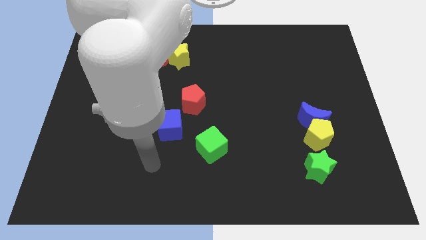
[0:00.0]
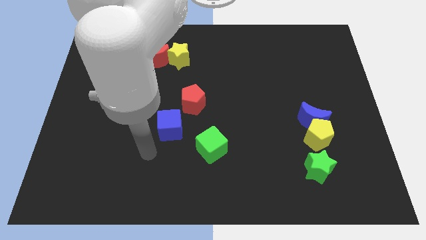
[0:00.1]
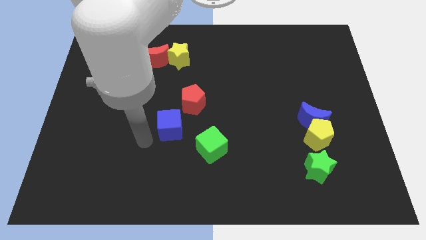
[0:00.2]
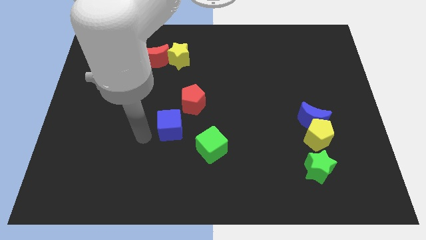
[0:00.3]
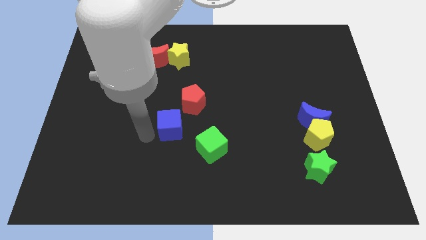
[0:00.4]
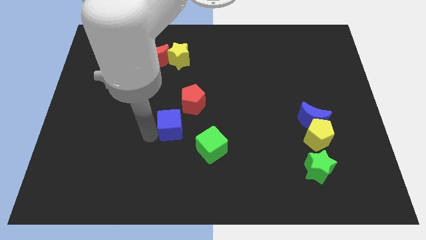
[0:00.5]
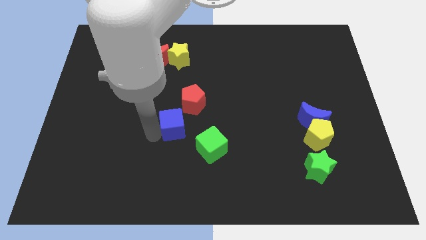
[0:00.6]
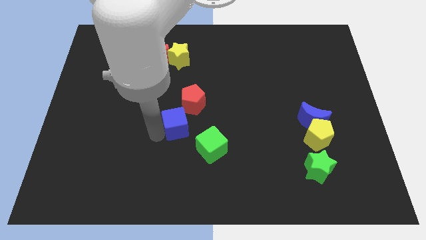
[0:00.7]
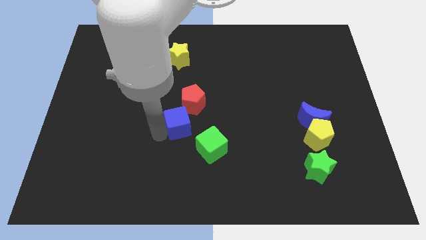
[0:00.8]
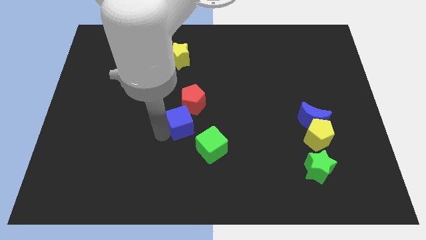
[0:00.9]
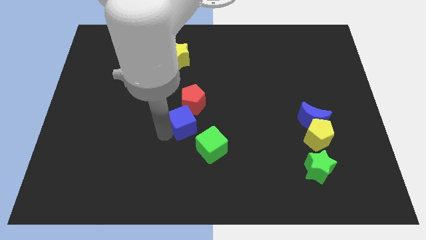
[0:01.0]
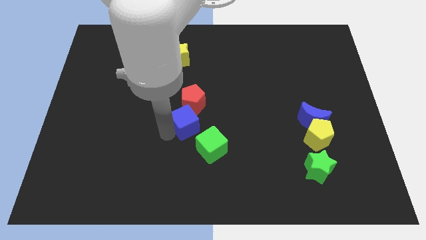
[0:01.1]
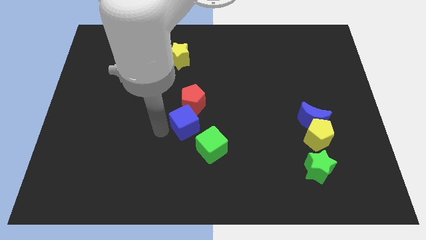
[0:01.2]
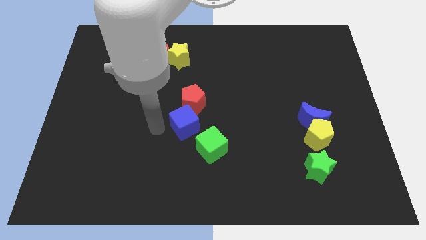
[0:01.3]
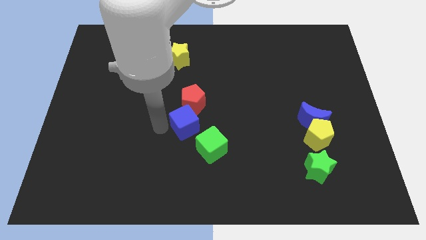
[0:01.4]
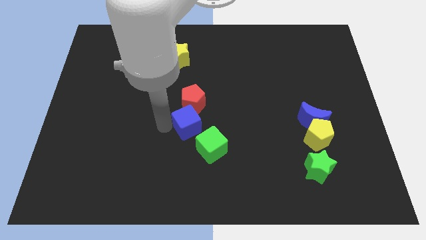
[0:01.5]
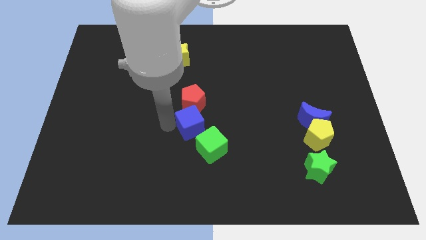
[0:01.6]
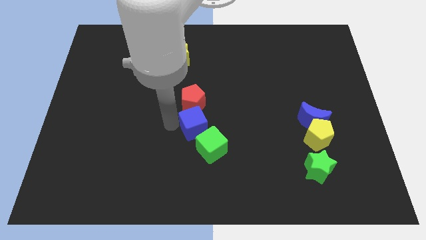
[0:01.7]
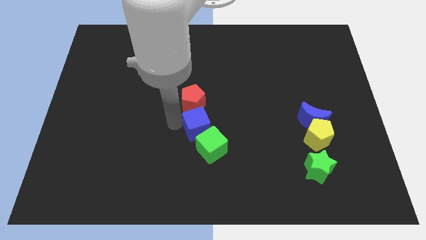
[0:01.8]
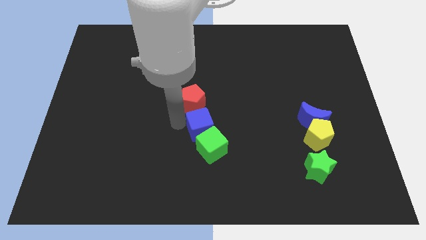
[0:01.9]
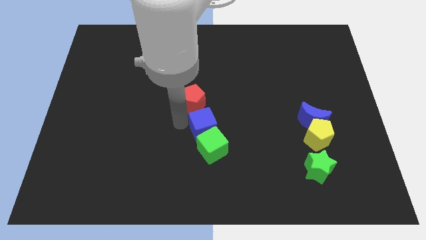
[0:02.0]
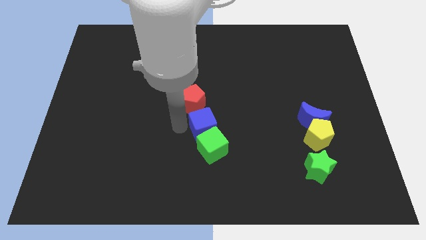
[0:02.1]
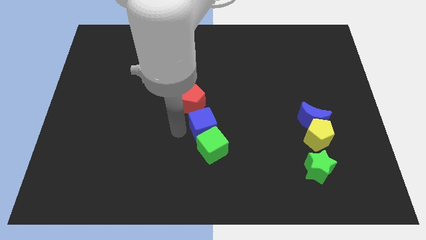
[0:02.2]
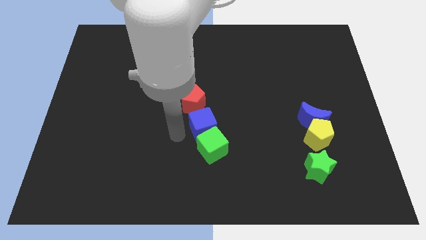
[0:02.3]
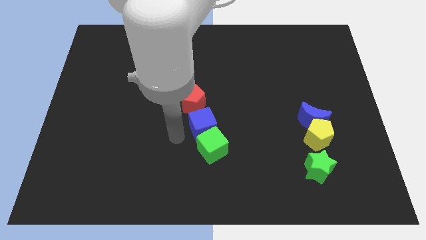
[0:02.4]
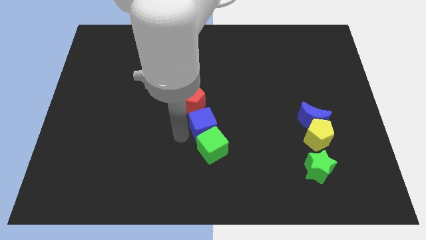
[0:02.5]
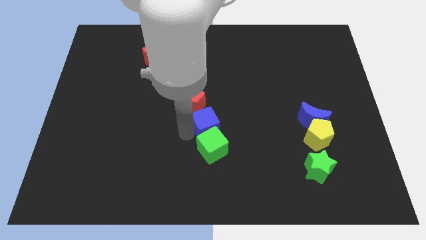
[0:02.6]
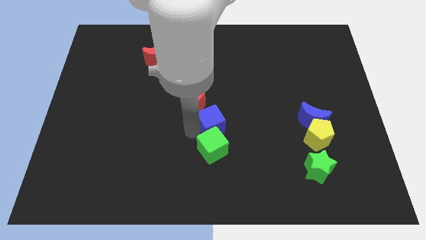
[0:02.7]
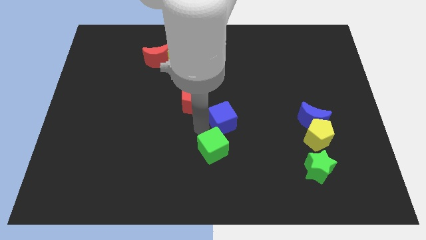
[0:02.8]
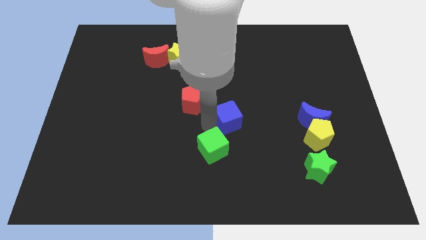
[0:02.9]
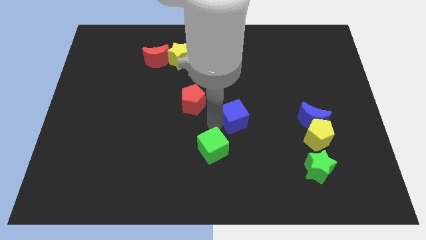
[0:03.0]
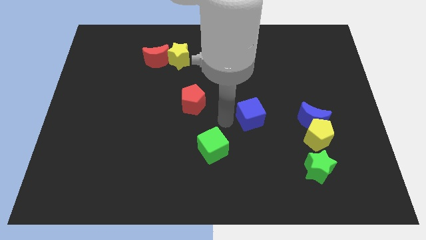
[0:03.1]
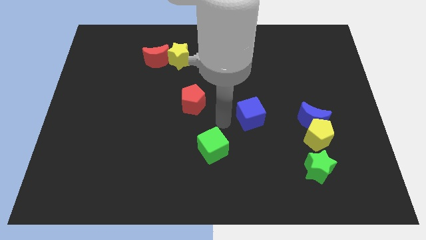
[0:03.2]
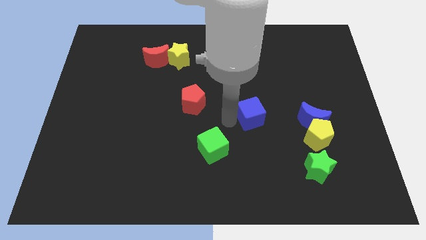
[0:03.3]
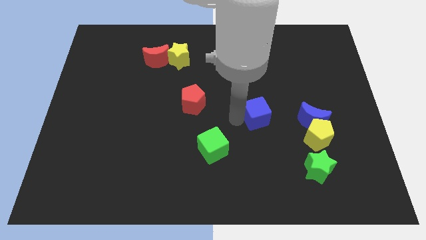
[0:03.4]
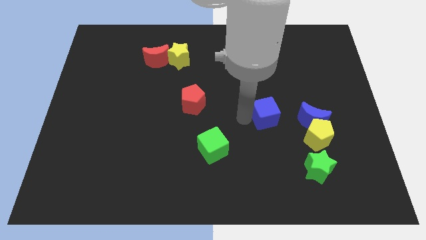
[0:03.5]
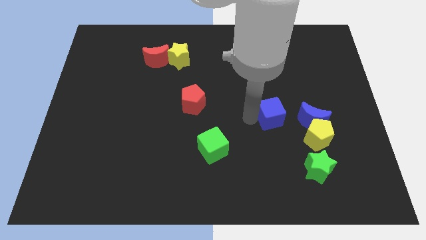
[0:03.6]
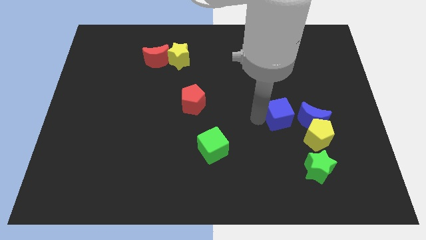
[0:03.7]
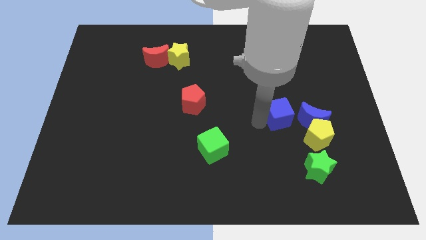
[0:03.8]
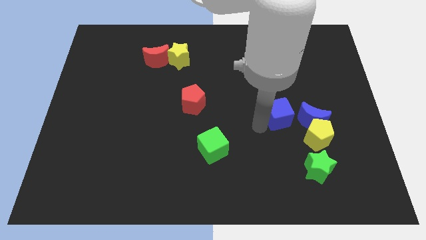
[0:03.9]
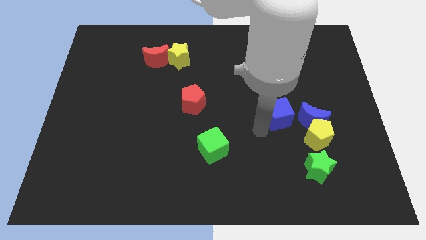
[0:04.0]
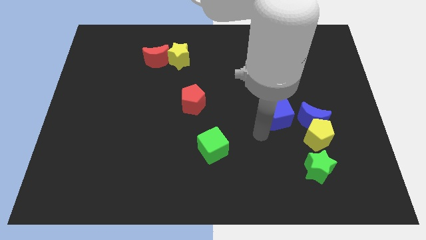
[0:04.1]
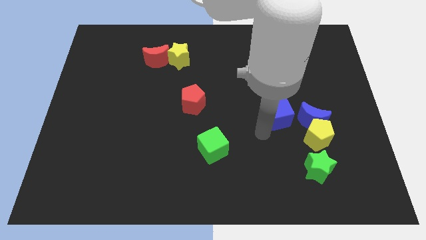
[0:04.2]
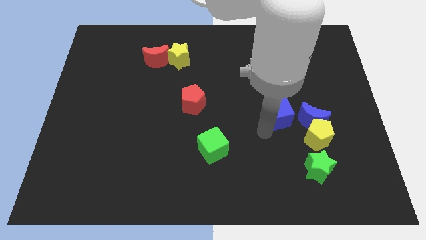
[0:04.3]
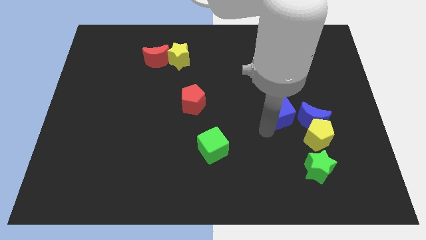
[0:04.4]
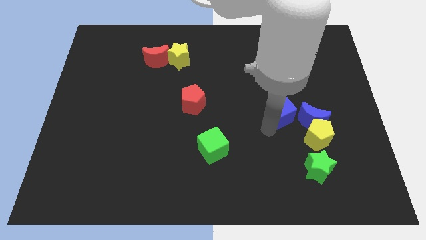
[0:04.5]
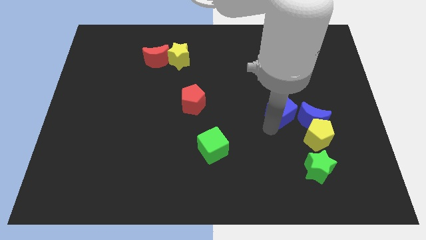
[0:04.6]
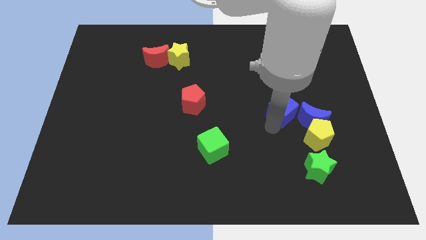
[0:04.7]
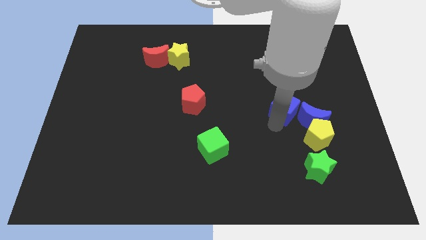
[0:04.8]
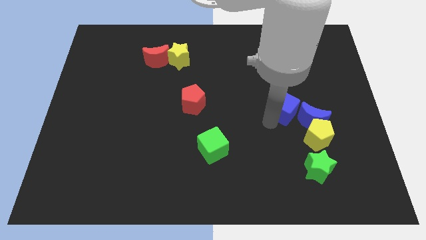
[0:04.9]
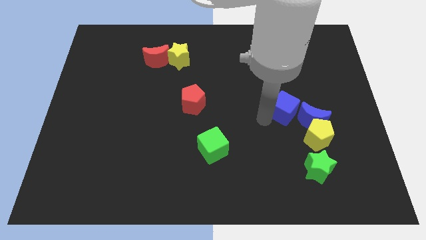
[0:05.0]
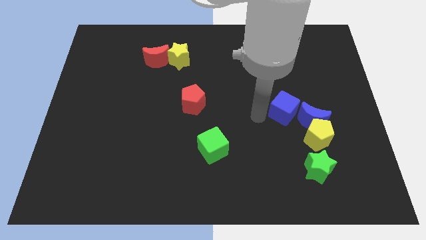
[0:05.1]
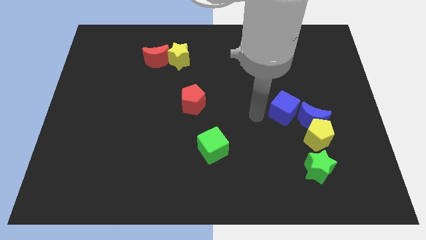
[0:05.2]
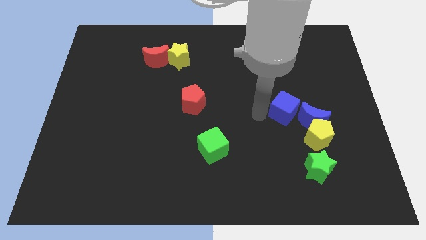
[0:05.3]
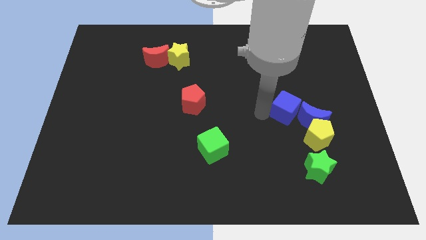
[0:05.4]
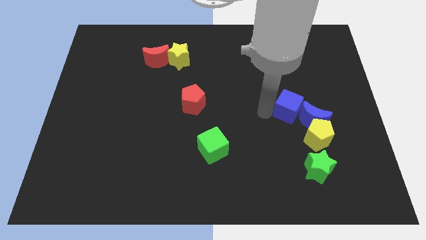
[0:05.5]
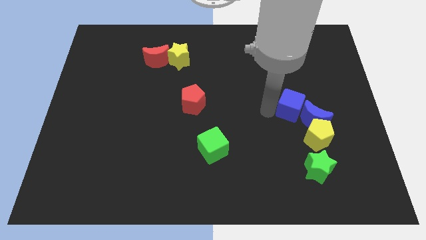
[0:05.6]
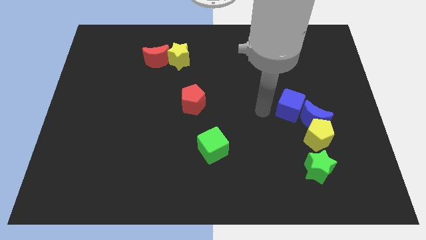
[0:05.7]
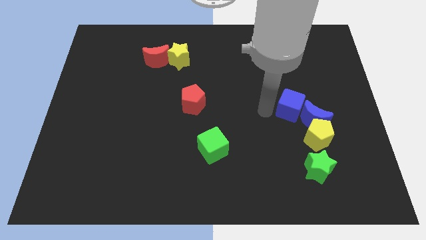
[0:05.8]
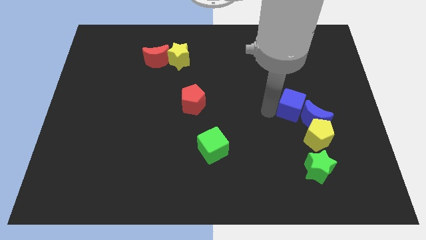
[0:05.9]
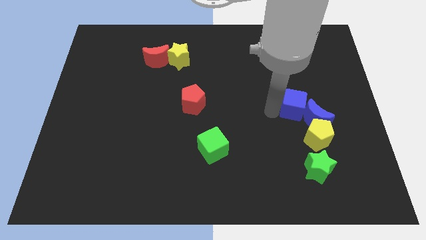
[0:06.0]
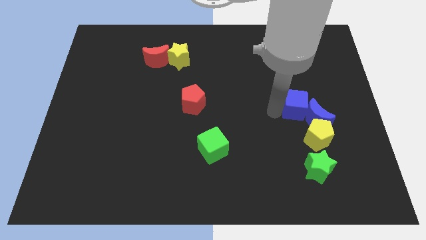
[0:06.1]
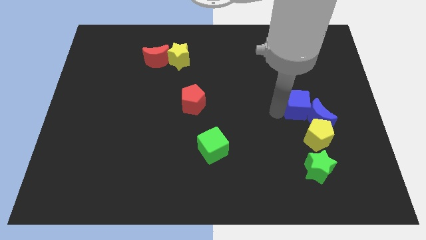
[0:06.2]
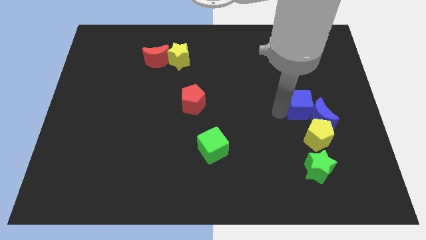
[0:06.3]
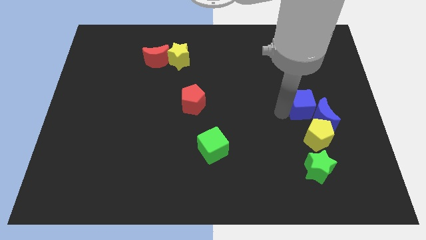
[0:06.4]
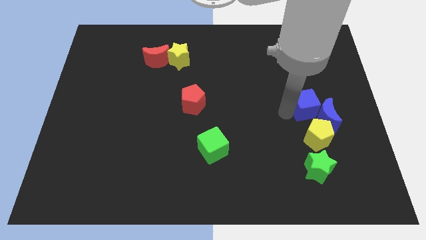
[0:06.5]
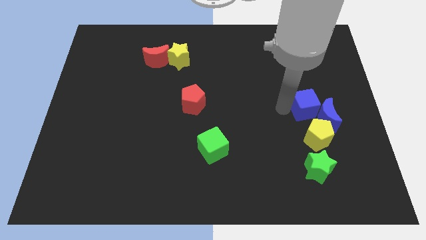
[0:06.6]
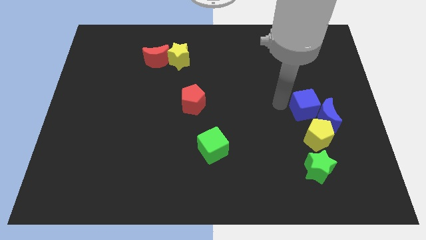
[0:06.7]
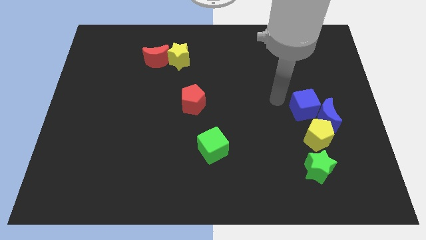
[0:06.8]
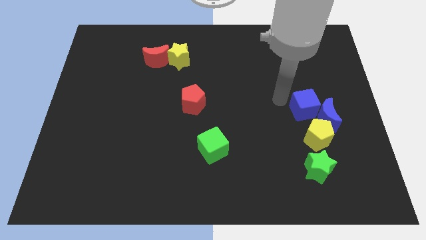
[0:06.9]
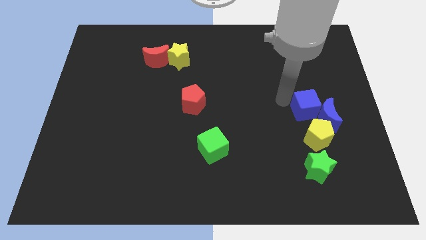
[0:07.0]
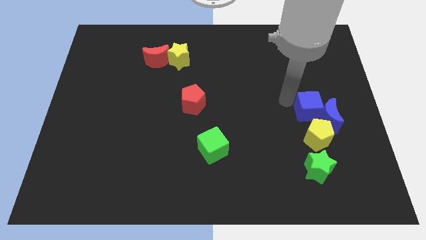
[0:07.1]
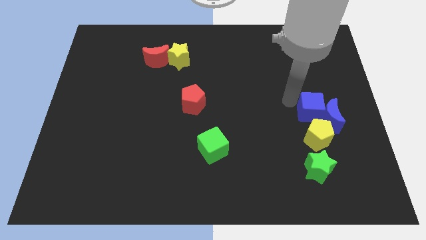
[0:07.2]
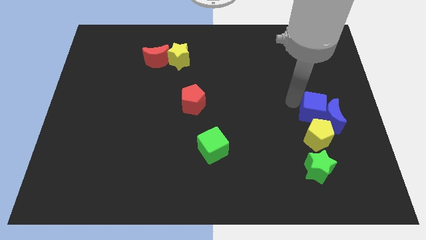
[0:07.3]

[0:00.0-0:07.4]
slide the blue cube to the top right of the yellow pentagon

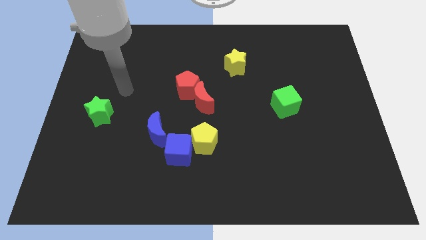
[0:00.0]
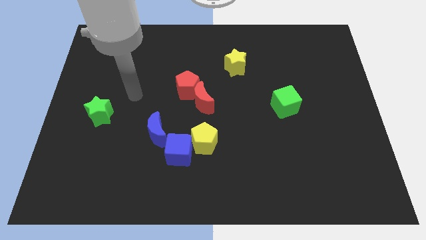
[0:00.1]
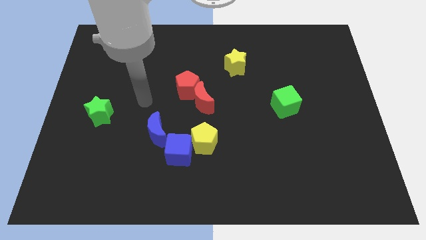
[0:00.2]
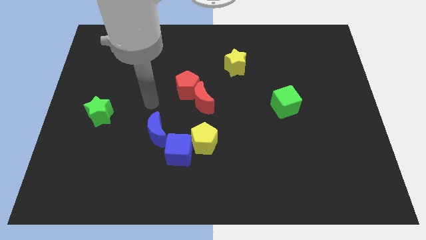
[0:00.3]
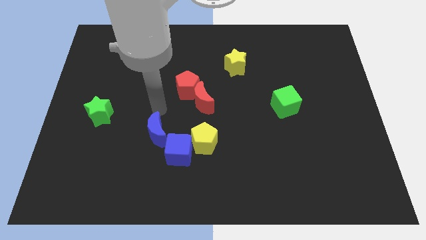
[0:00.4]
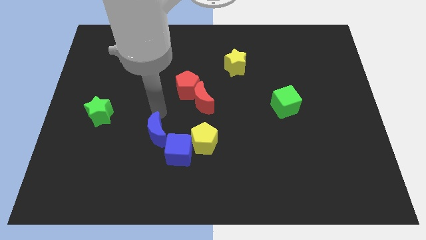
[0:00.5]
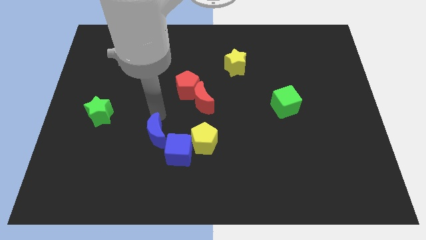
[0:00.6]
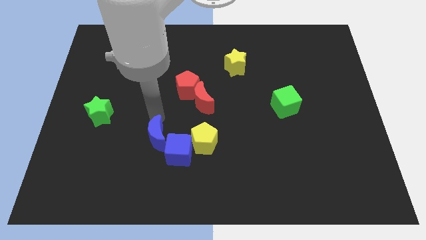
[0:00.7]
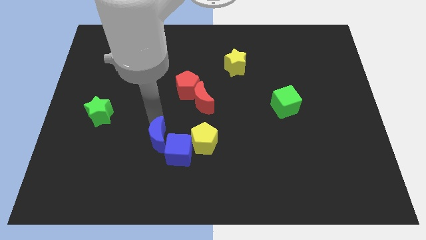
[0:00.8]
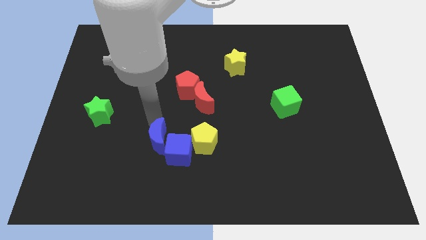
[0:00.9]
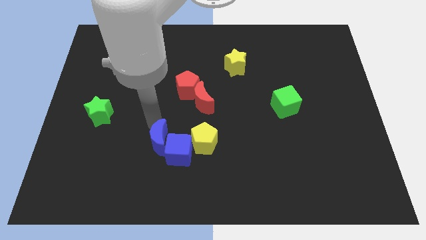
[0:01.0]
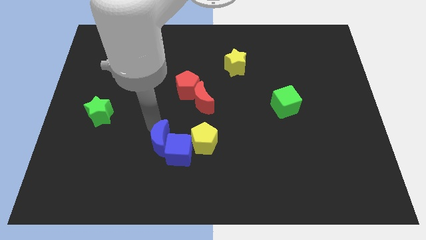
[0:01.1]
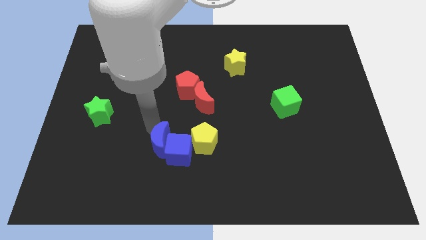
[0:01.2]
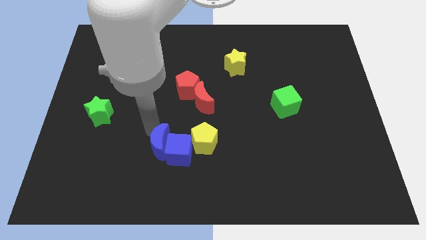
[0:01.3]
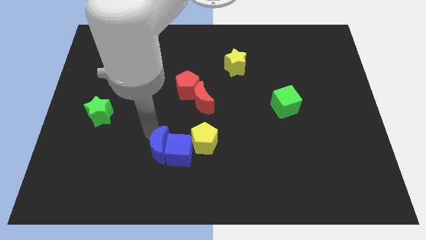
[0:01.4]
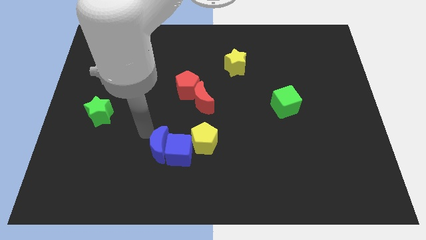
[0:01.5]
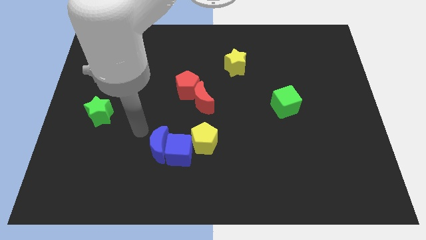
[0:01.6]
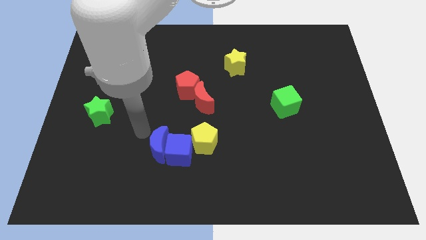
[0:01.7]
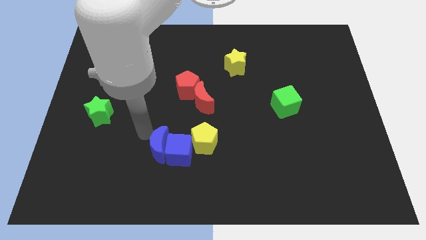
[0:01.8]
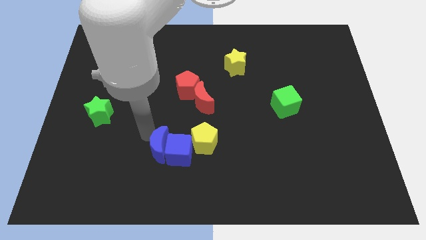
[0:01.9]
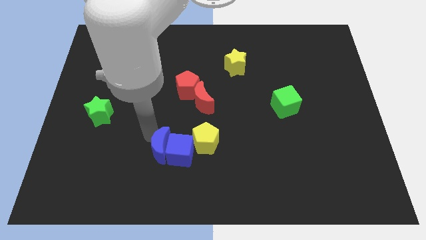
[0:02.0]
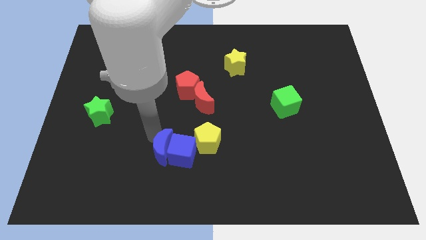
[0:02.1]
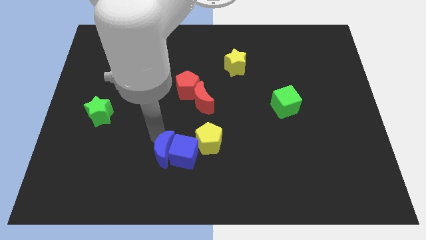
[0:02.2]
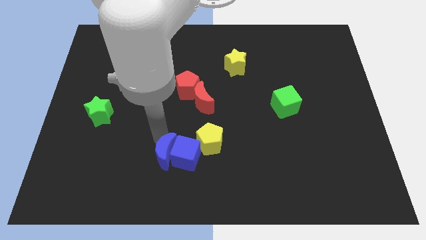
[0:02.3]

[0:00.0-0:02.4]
put the blue moon diagonally down and to the left of the yellow pentagon
